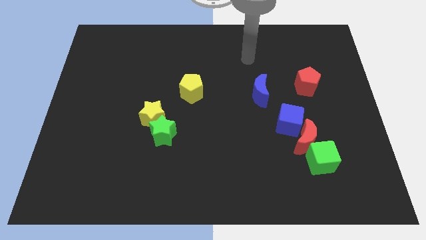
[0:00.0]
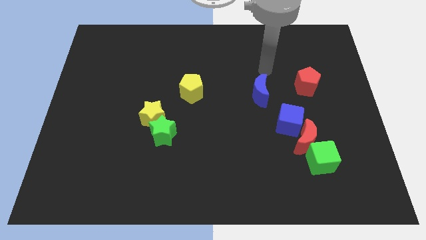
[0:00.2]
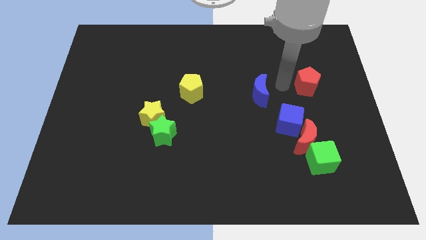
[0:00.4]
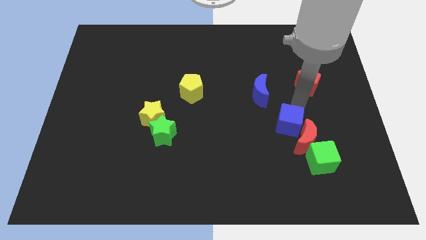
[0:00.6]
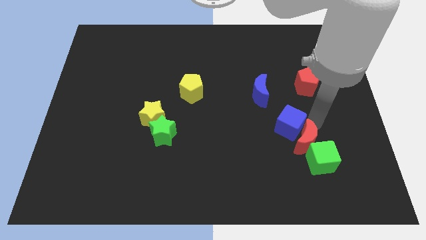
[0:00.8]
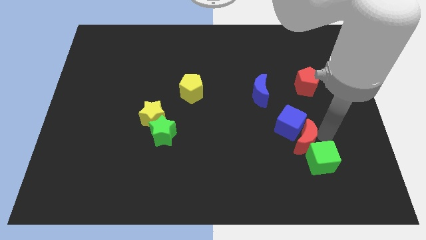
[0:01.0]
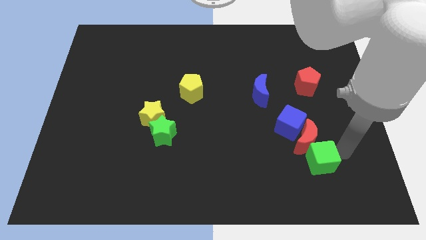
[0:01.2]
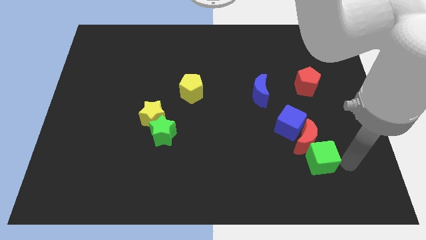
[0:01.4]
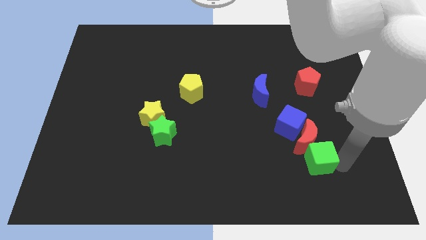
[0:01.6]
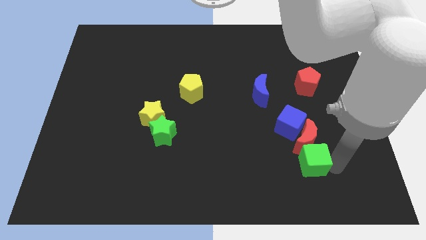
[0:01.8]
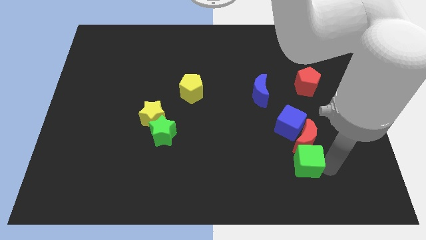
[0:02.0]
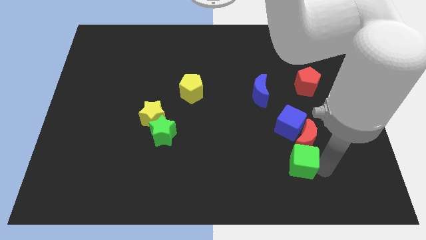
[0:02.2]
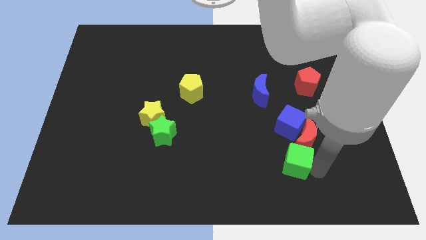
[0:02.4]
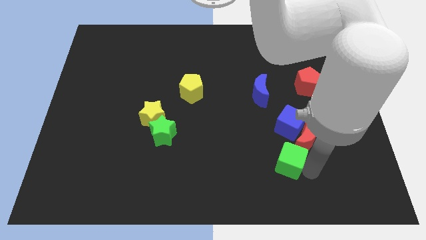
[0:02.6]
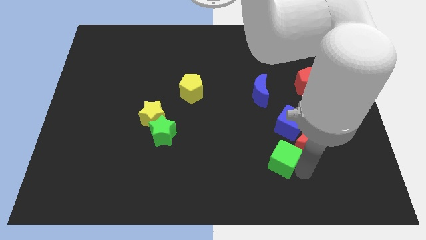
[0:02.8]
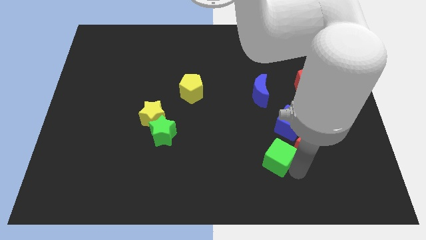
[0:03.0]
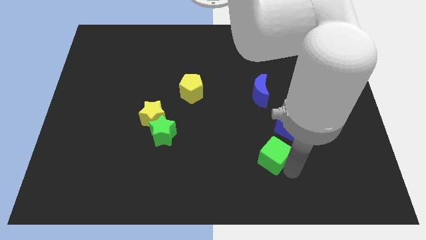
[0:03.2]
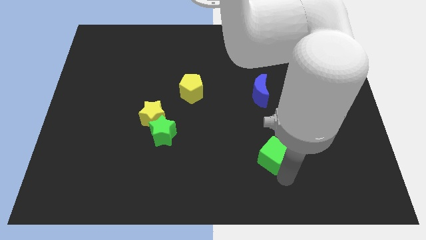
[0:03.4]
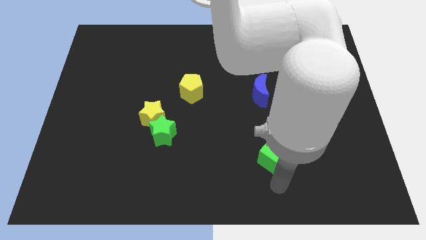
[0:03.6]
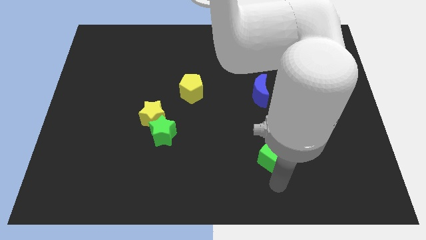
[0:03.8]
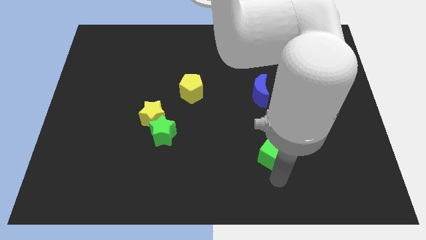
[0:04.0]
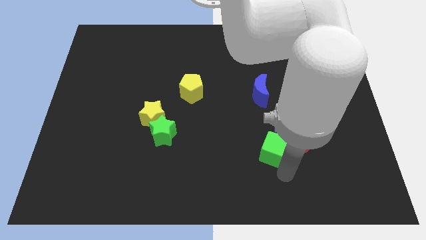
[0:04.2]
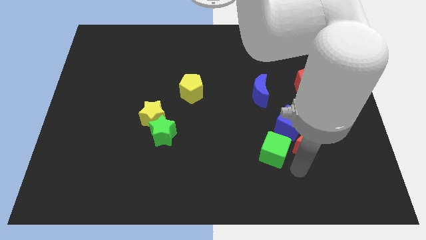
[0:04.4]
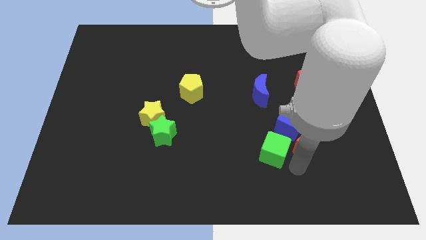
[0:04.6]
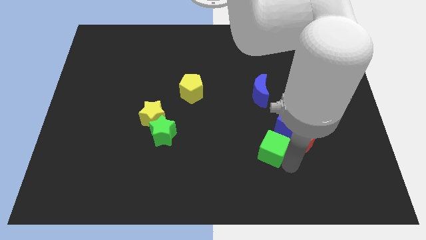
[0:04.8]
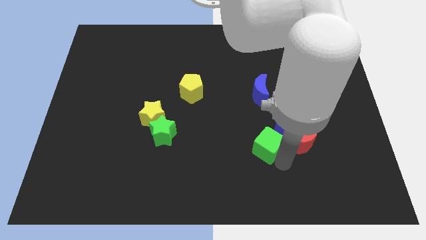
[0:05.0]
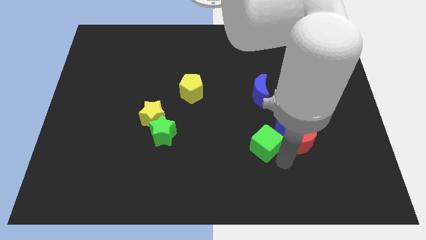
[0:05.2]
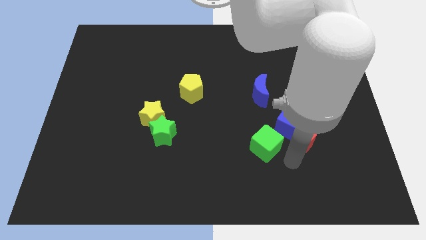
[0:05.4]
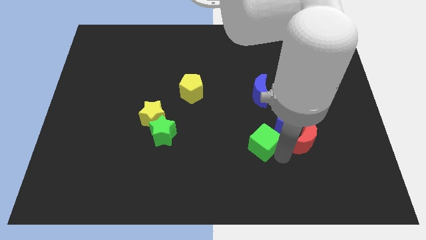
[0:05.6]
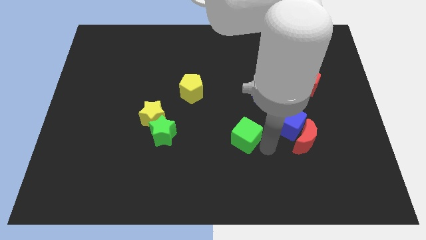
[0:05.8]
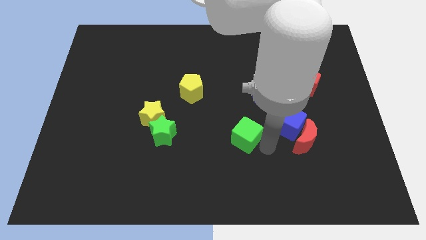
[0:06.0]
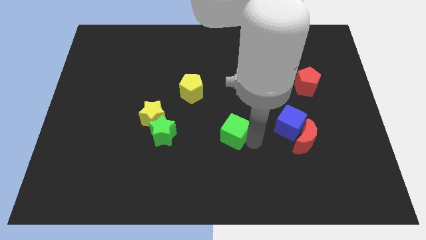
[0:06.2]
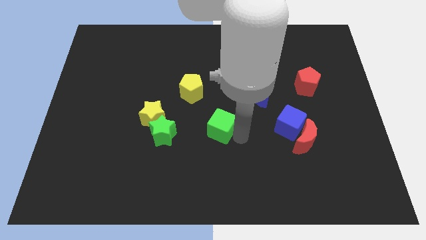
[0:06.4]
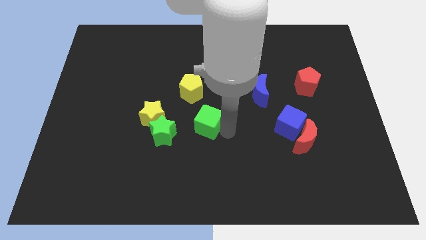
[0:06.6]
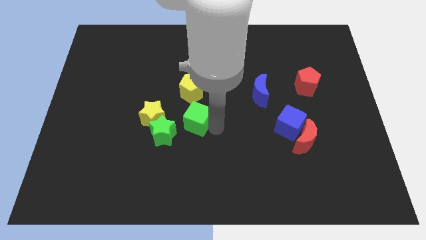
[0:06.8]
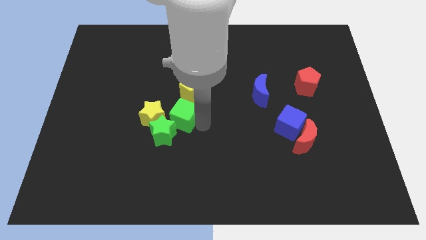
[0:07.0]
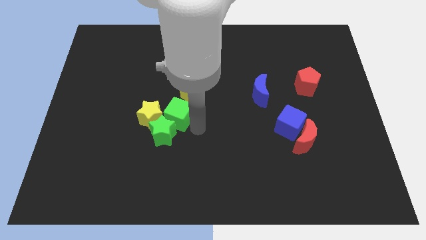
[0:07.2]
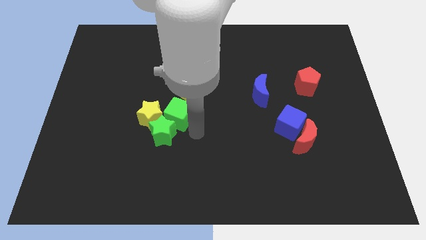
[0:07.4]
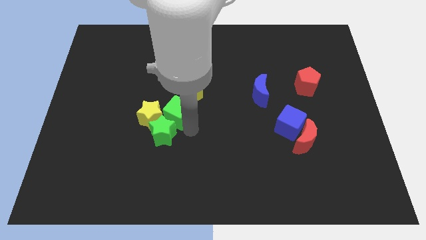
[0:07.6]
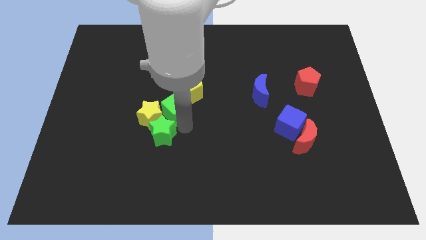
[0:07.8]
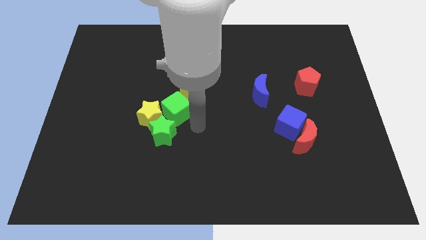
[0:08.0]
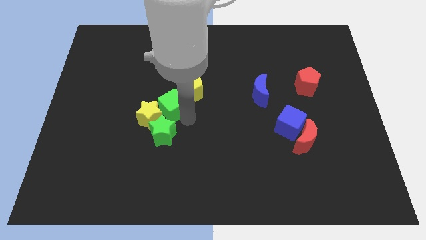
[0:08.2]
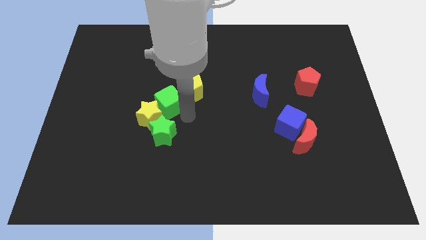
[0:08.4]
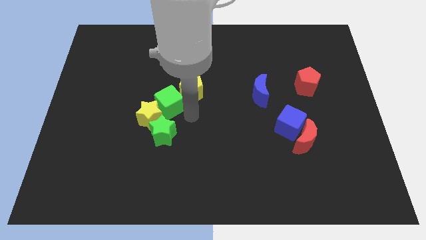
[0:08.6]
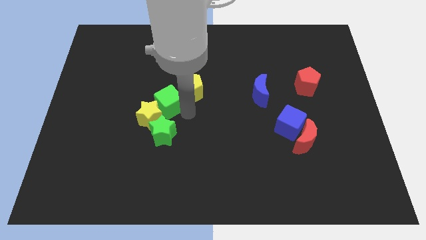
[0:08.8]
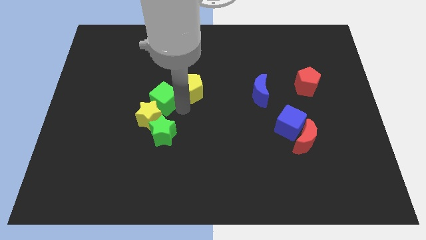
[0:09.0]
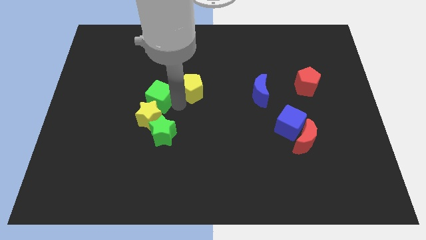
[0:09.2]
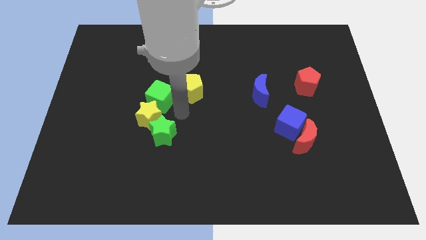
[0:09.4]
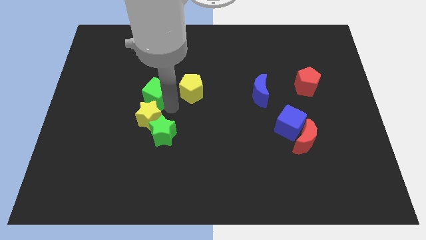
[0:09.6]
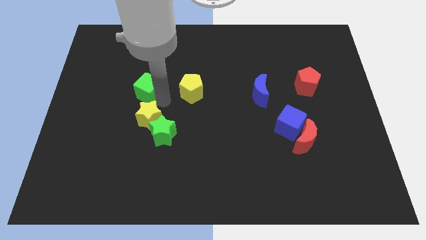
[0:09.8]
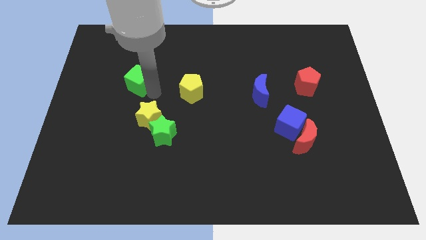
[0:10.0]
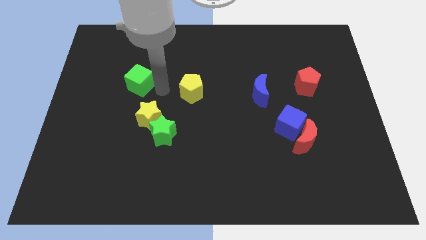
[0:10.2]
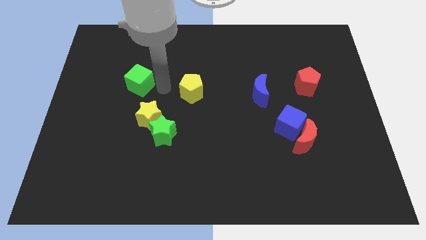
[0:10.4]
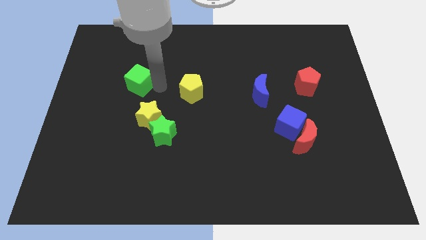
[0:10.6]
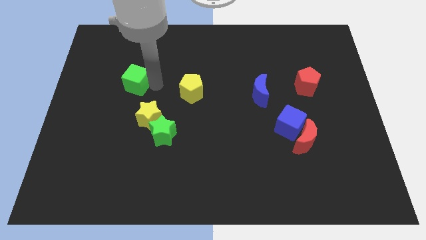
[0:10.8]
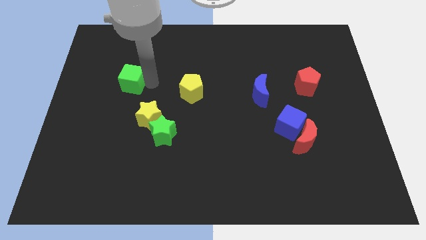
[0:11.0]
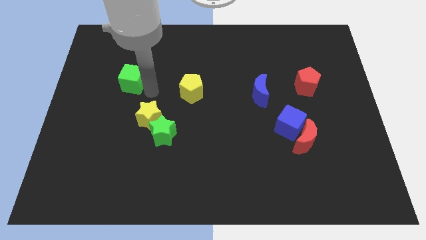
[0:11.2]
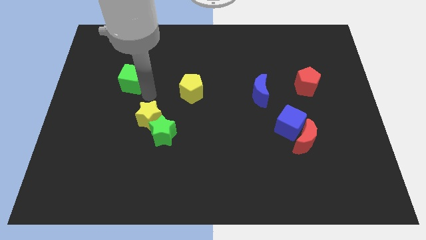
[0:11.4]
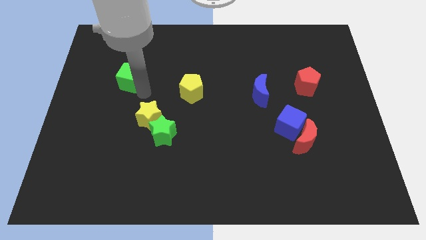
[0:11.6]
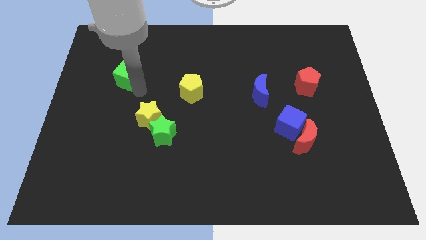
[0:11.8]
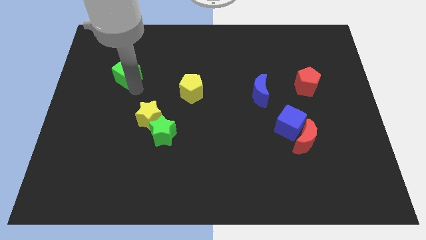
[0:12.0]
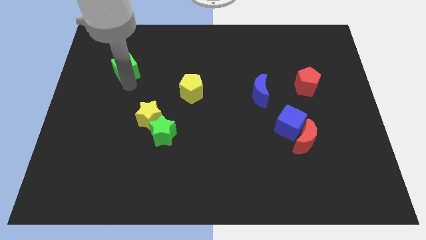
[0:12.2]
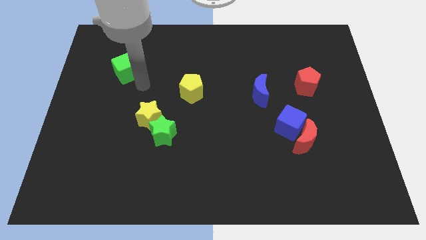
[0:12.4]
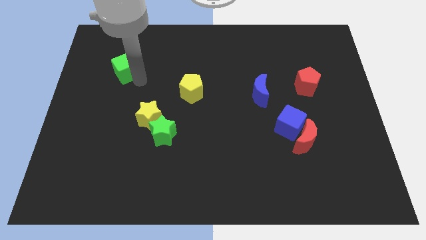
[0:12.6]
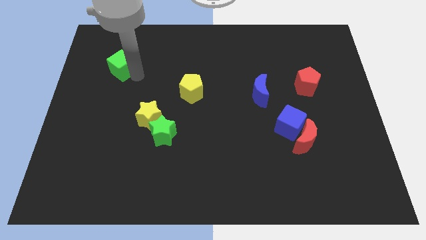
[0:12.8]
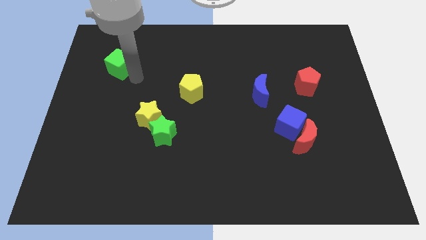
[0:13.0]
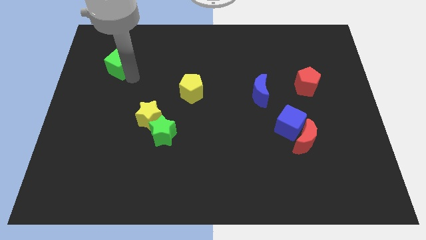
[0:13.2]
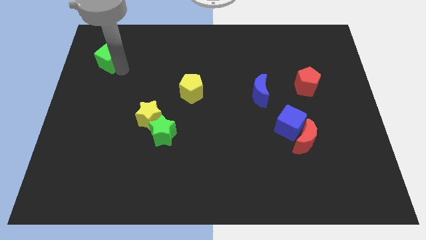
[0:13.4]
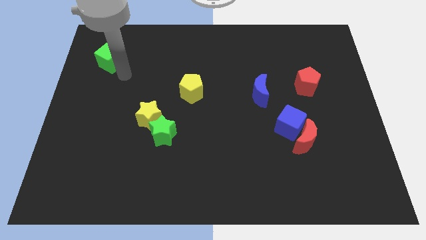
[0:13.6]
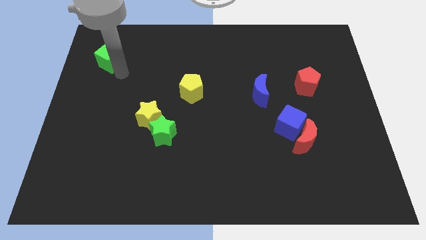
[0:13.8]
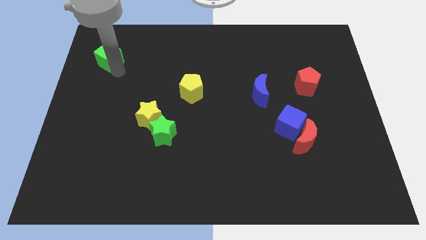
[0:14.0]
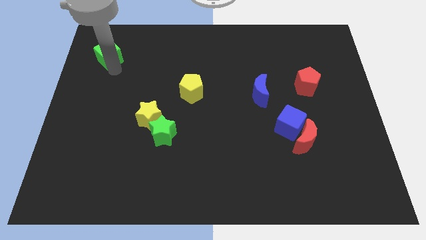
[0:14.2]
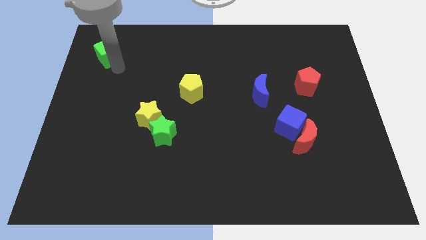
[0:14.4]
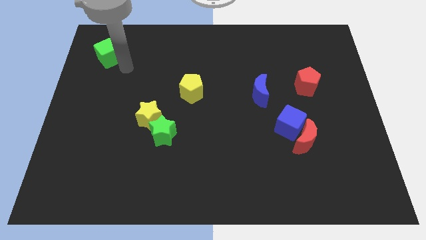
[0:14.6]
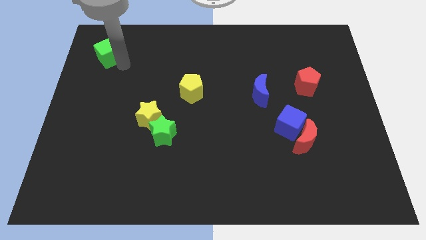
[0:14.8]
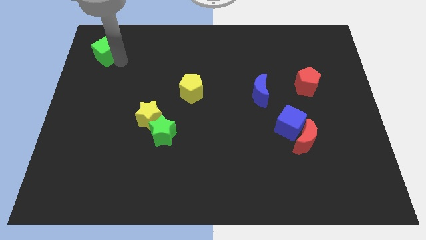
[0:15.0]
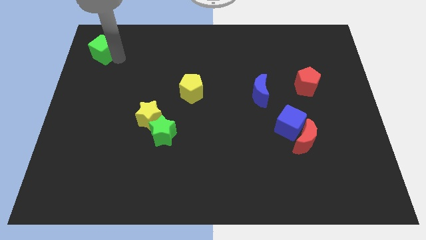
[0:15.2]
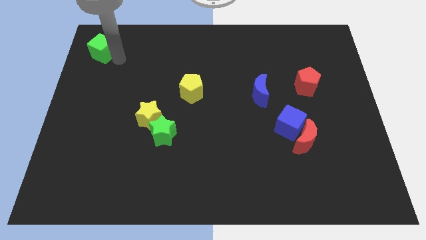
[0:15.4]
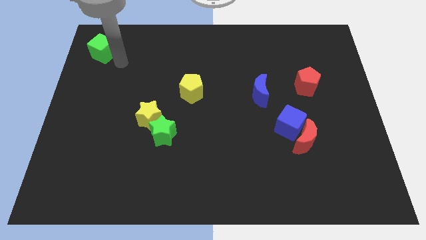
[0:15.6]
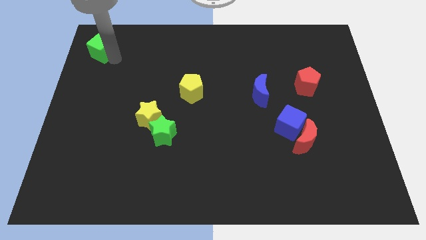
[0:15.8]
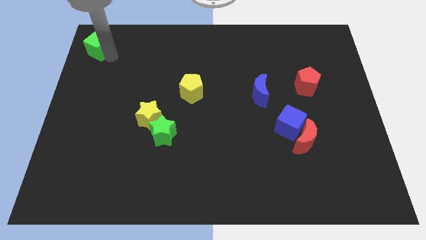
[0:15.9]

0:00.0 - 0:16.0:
put the green cube to the top left corner
